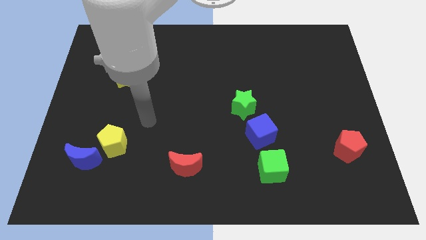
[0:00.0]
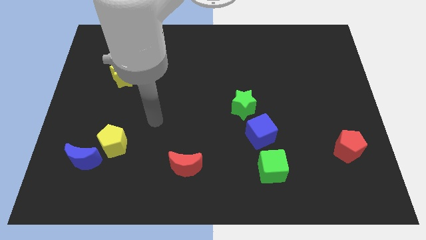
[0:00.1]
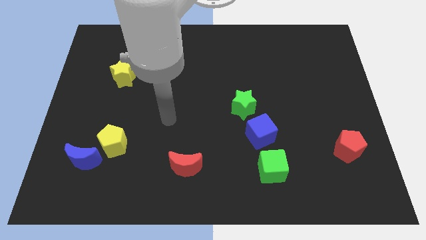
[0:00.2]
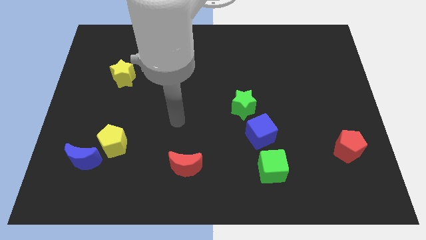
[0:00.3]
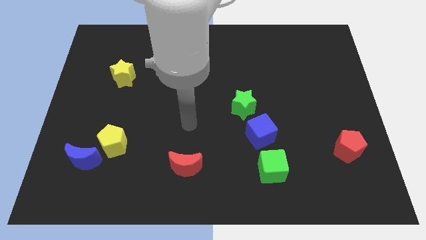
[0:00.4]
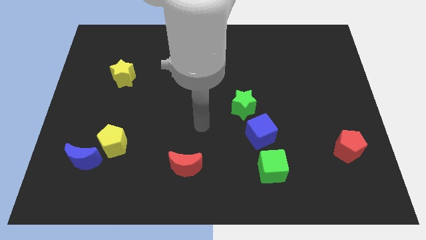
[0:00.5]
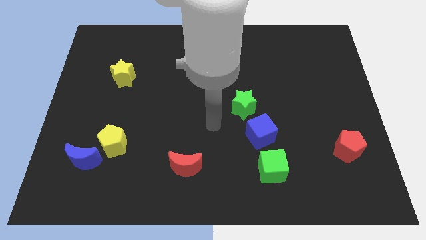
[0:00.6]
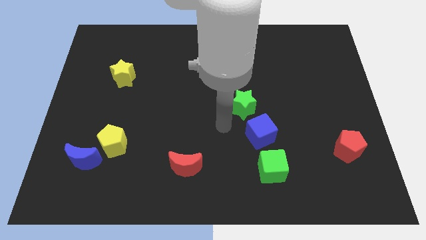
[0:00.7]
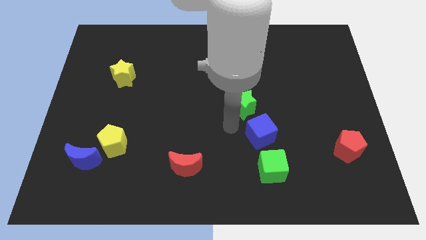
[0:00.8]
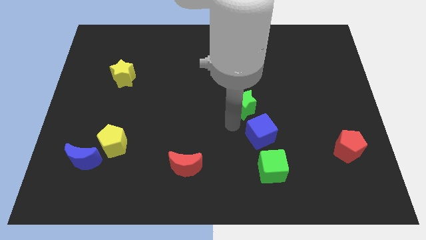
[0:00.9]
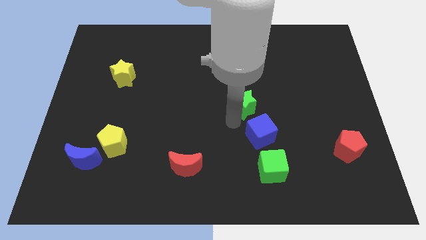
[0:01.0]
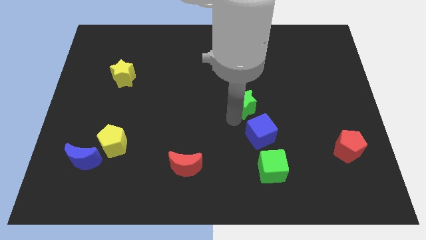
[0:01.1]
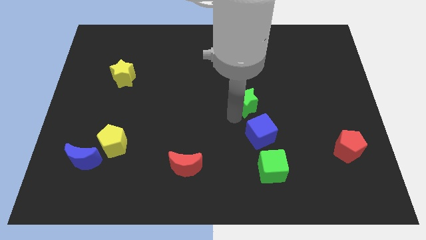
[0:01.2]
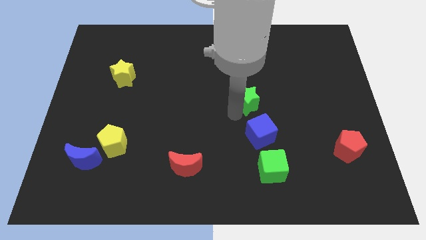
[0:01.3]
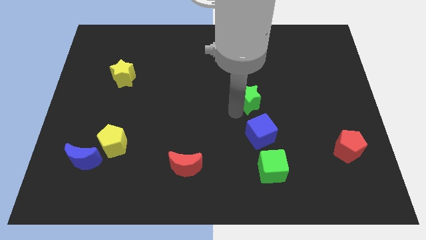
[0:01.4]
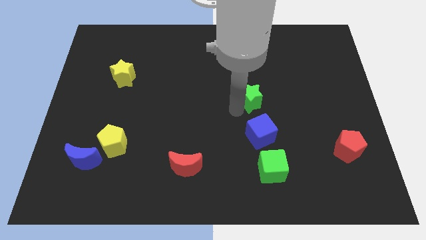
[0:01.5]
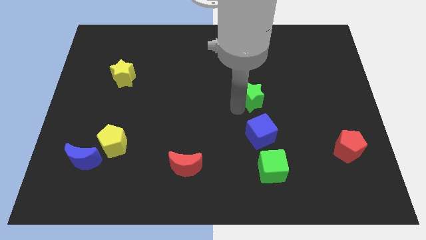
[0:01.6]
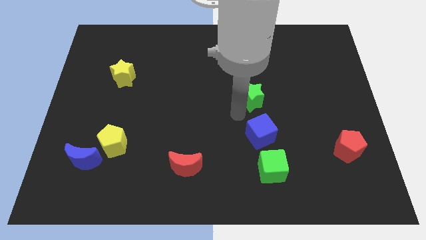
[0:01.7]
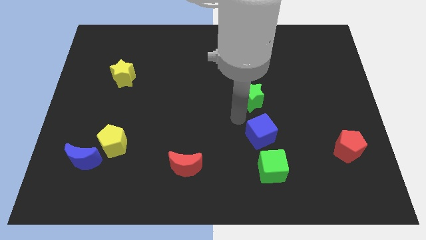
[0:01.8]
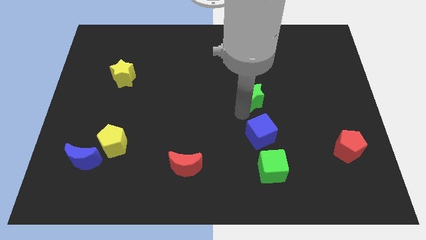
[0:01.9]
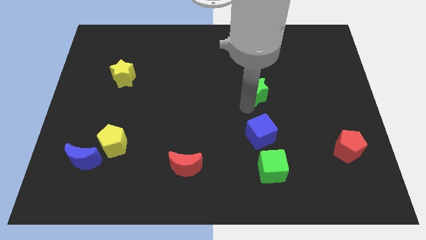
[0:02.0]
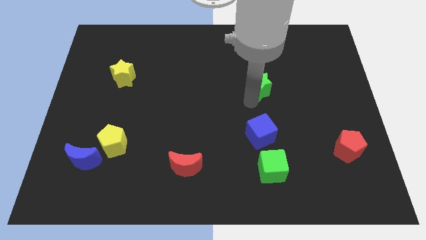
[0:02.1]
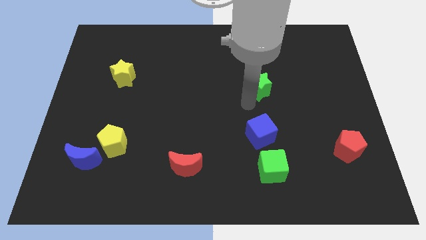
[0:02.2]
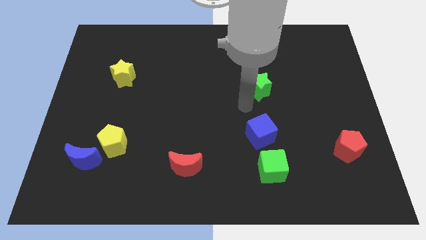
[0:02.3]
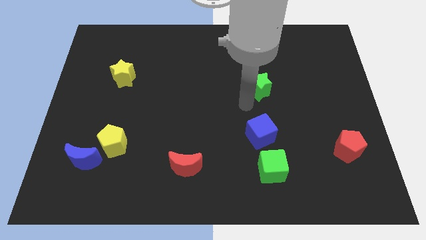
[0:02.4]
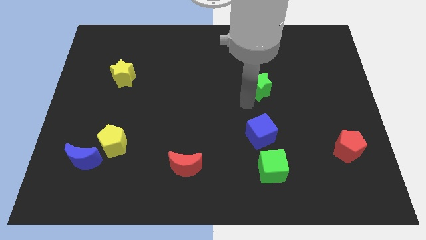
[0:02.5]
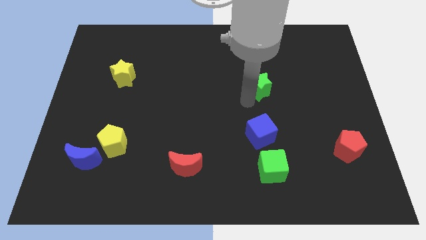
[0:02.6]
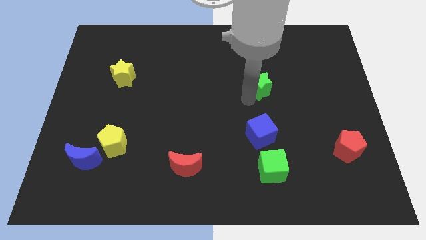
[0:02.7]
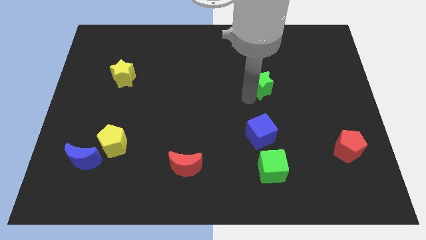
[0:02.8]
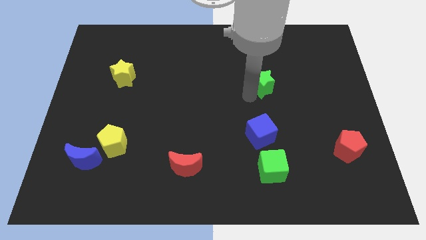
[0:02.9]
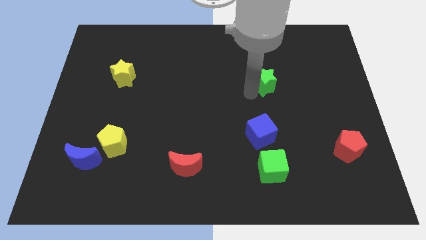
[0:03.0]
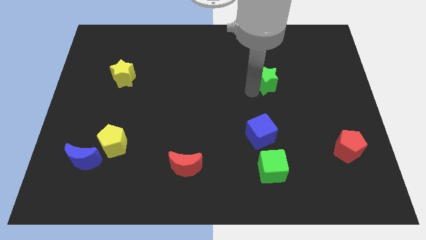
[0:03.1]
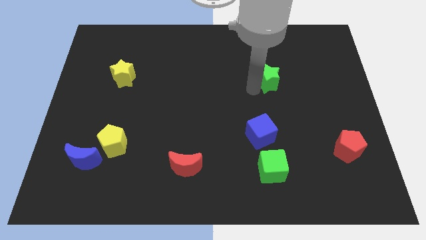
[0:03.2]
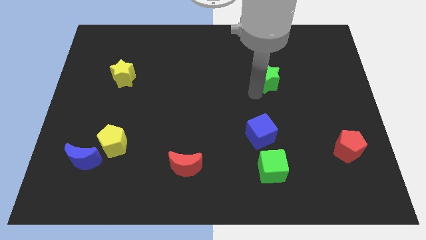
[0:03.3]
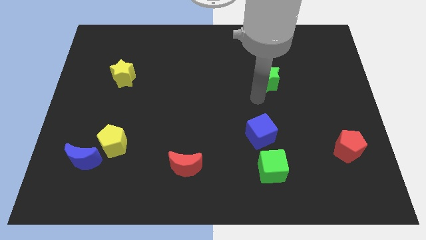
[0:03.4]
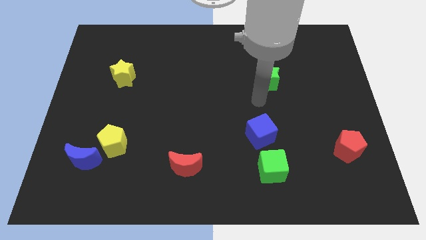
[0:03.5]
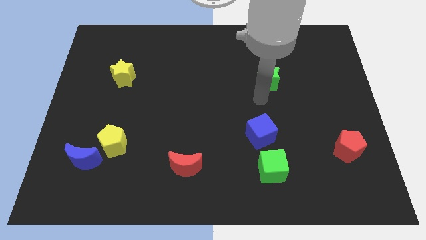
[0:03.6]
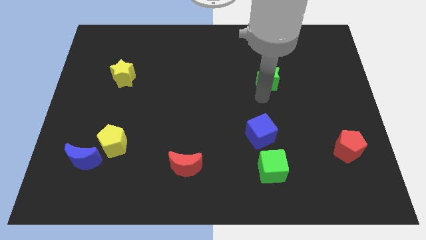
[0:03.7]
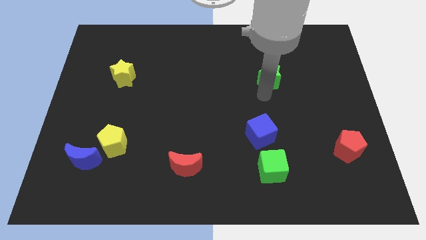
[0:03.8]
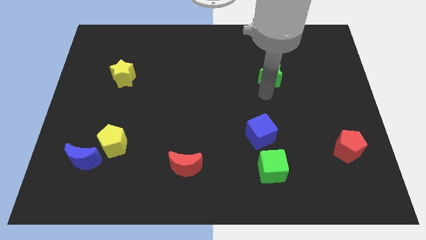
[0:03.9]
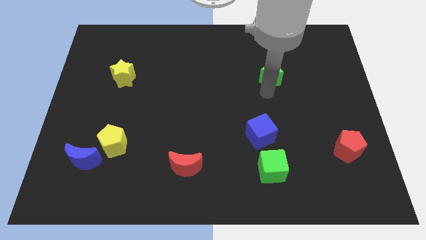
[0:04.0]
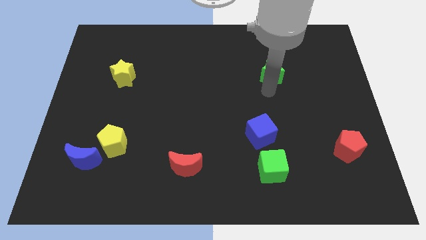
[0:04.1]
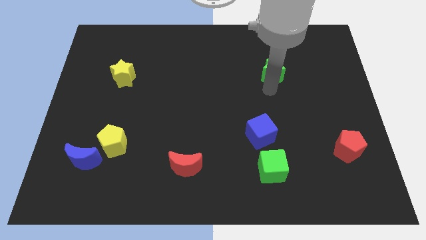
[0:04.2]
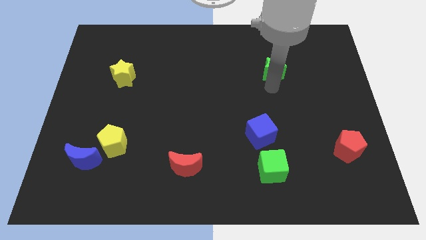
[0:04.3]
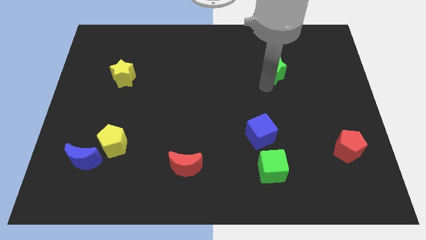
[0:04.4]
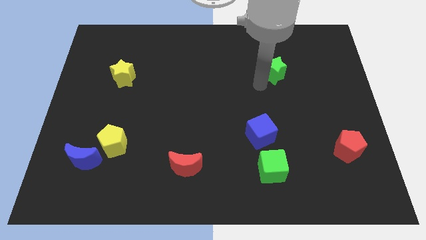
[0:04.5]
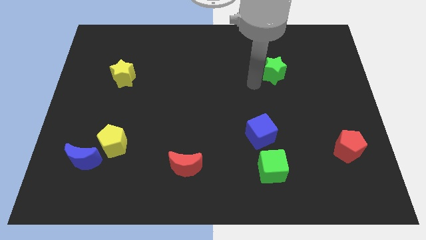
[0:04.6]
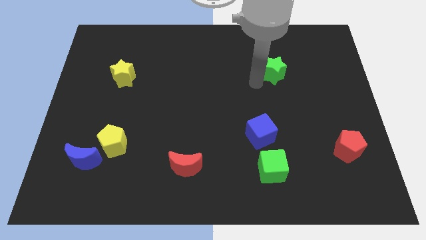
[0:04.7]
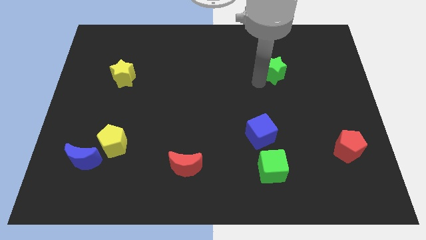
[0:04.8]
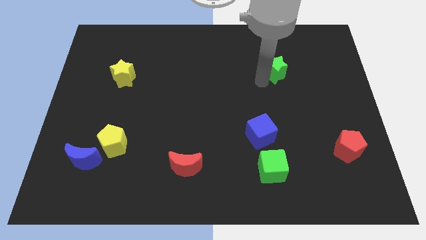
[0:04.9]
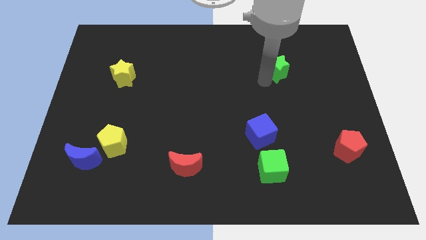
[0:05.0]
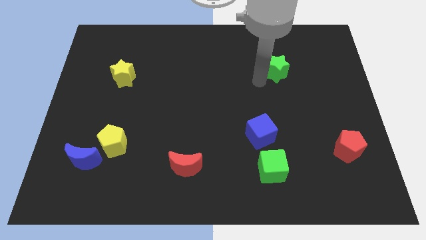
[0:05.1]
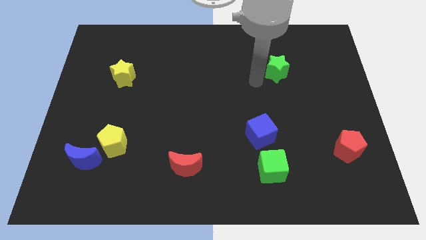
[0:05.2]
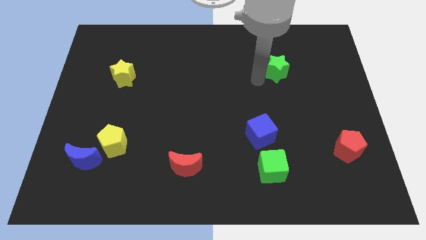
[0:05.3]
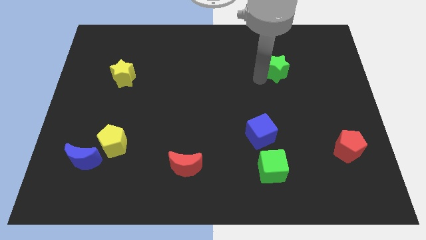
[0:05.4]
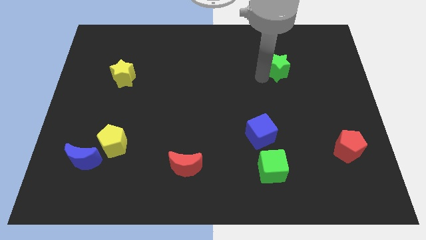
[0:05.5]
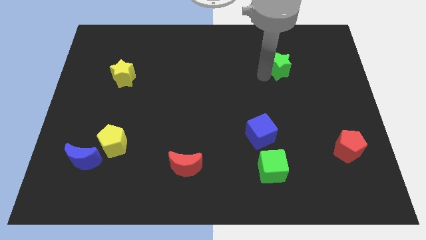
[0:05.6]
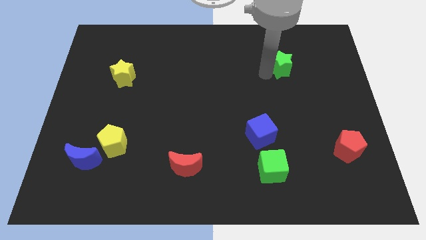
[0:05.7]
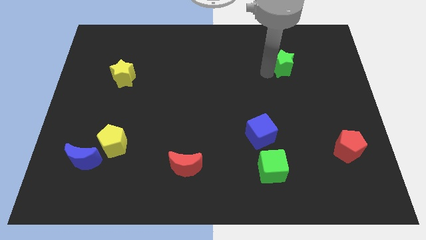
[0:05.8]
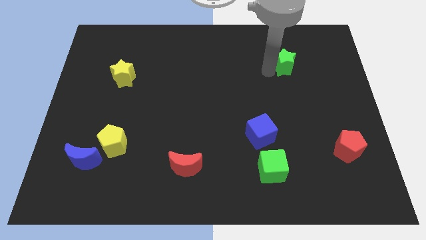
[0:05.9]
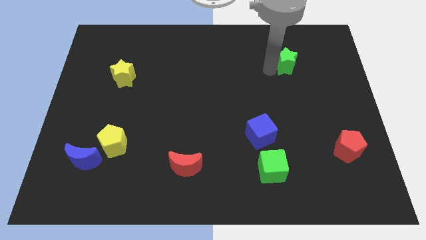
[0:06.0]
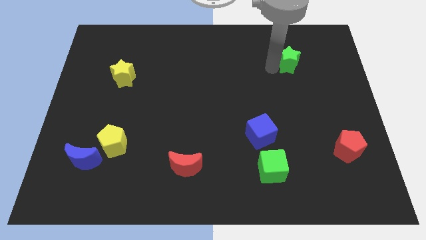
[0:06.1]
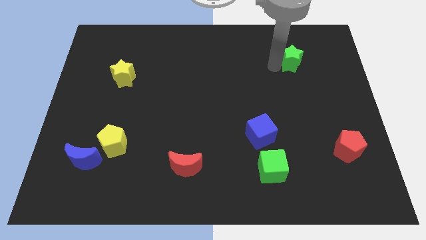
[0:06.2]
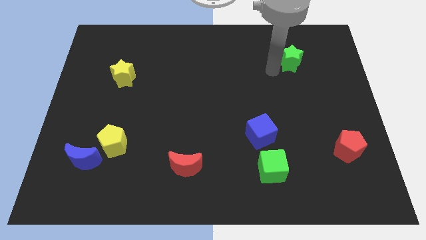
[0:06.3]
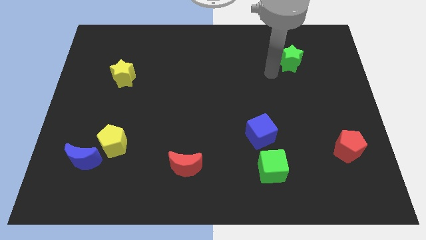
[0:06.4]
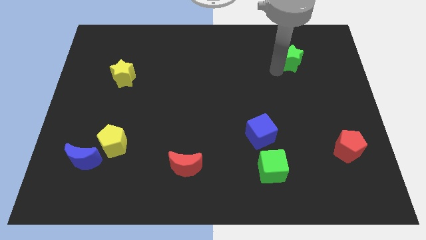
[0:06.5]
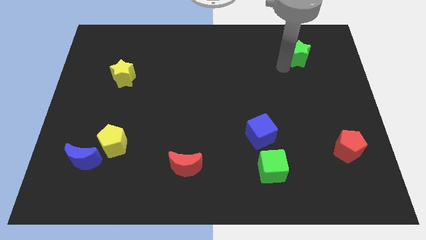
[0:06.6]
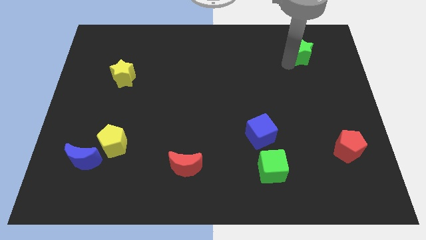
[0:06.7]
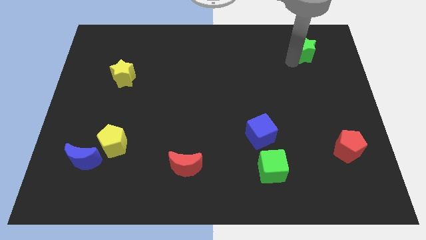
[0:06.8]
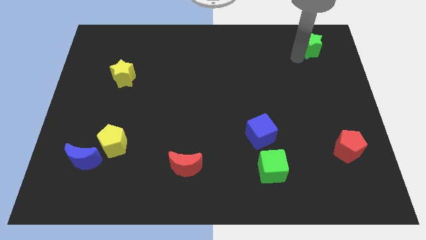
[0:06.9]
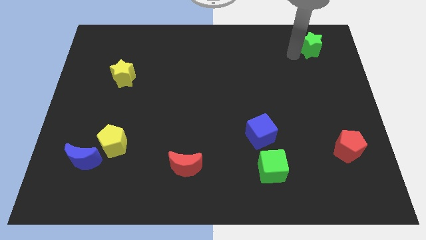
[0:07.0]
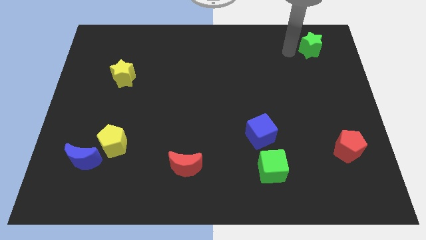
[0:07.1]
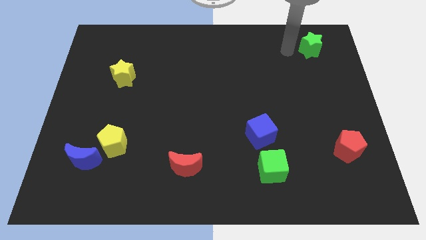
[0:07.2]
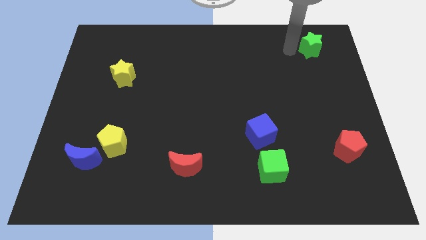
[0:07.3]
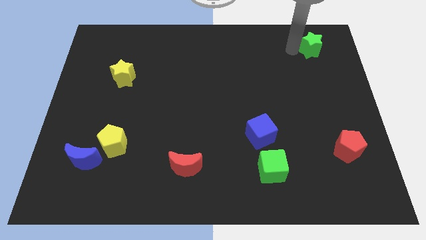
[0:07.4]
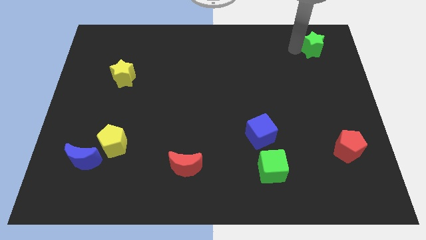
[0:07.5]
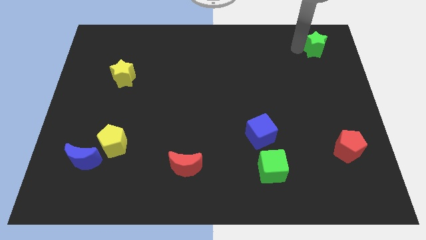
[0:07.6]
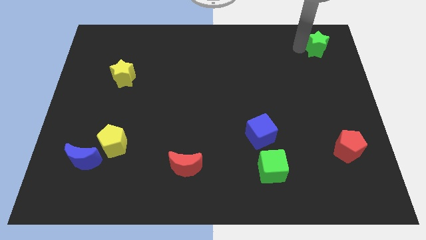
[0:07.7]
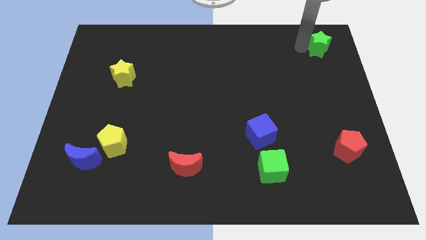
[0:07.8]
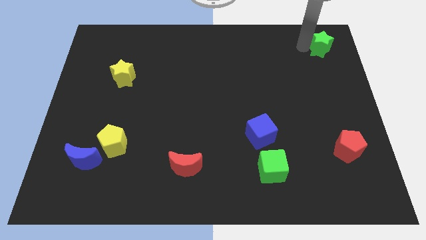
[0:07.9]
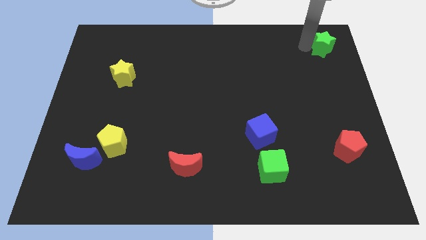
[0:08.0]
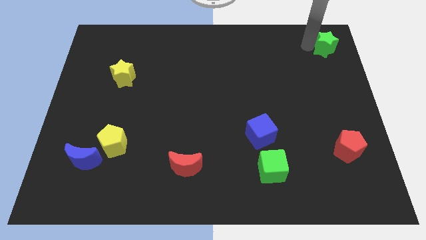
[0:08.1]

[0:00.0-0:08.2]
put the green star to the top right of the board
